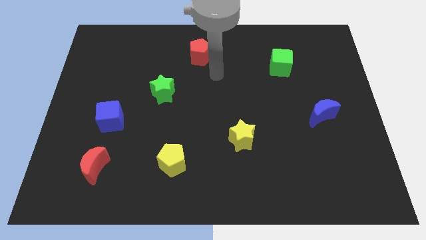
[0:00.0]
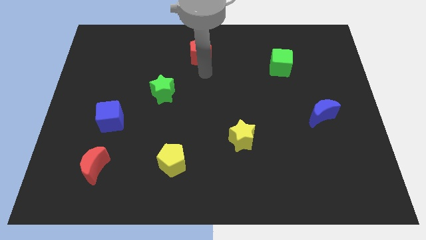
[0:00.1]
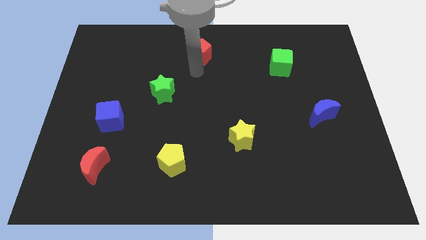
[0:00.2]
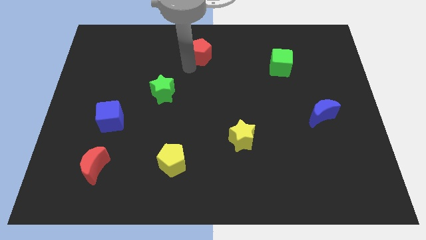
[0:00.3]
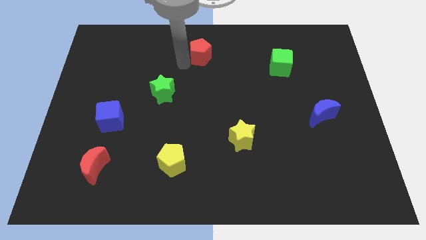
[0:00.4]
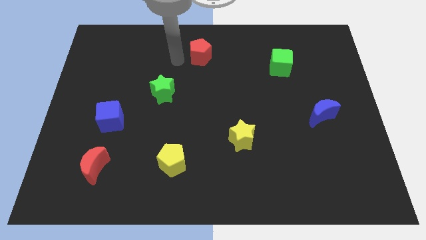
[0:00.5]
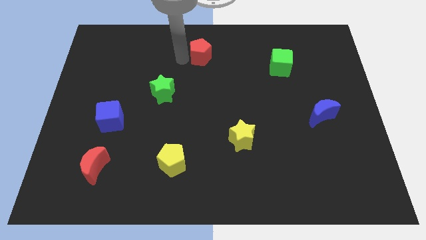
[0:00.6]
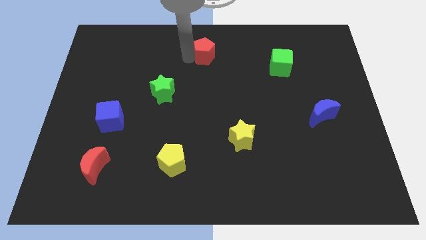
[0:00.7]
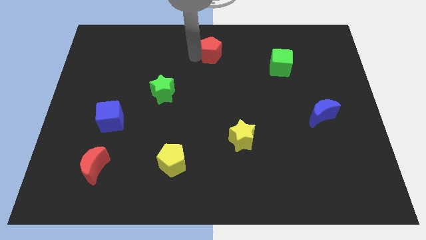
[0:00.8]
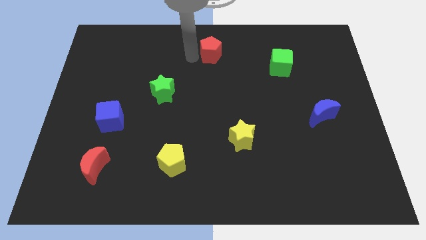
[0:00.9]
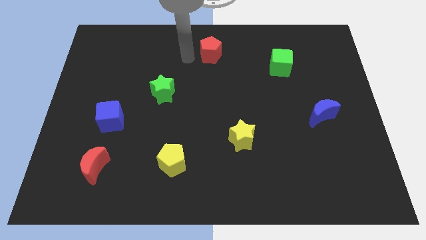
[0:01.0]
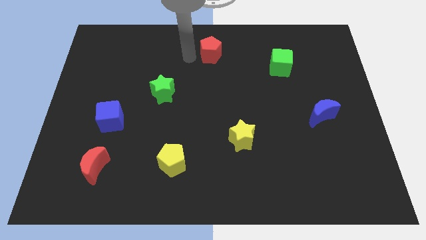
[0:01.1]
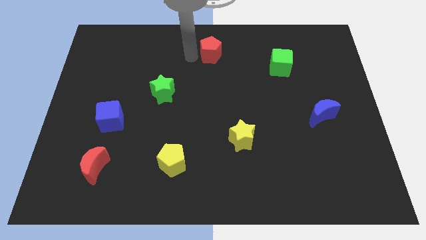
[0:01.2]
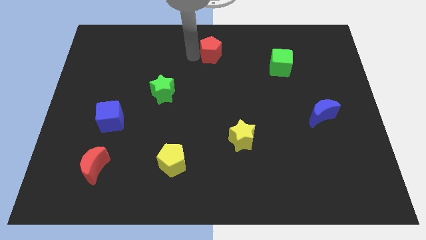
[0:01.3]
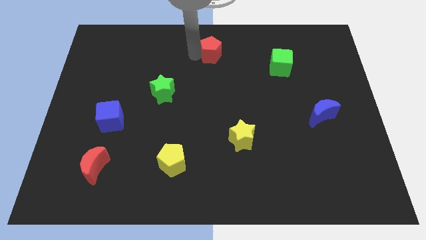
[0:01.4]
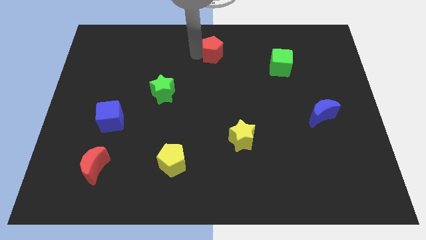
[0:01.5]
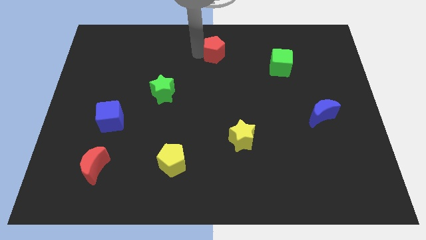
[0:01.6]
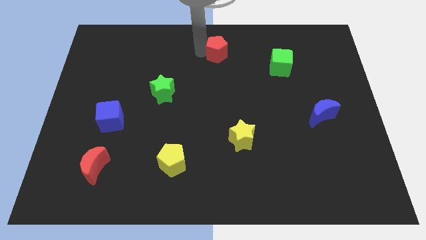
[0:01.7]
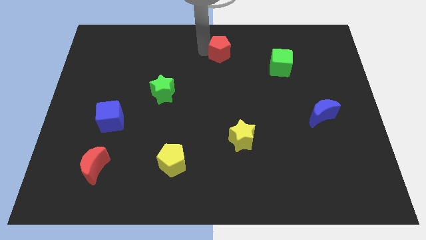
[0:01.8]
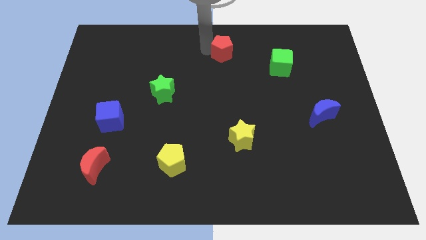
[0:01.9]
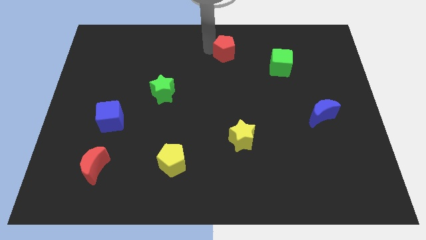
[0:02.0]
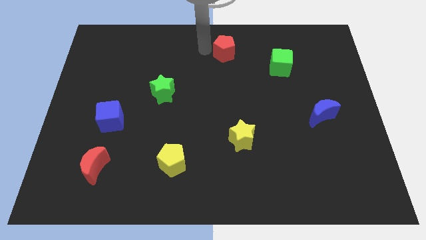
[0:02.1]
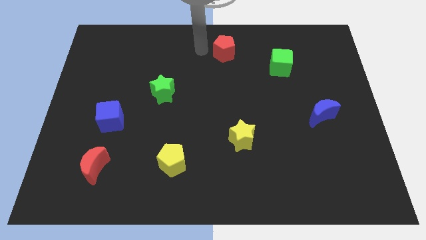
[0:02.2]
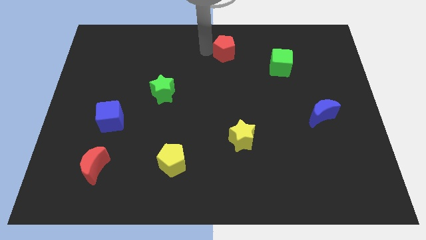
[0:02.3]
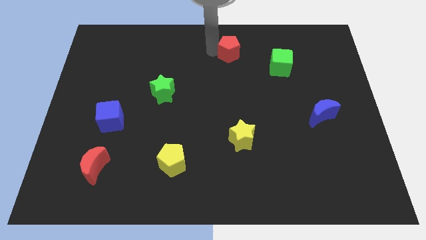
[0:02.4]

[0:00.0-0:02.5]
slightly move the red pentagon right

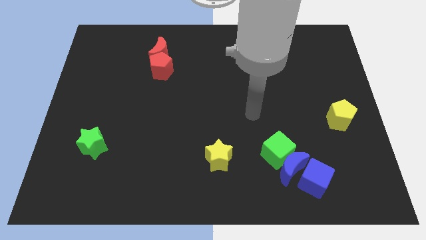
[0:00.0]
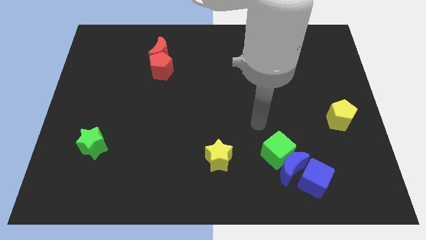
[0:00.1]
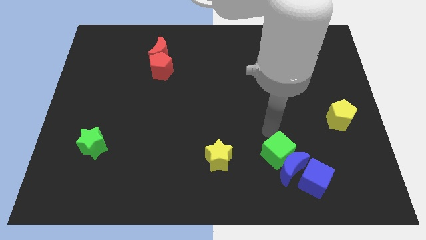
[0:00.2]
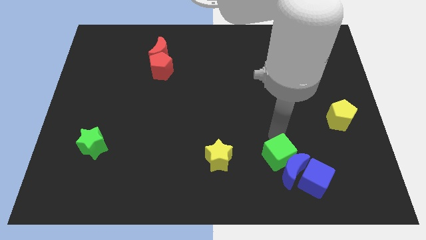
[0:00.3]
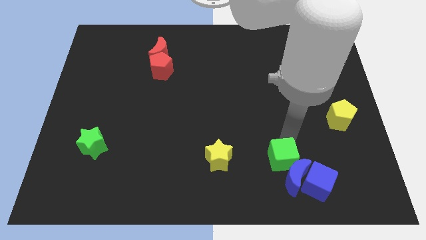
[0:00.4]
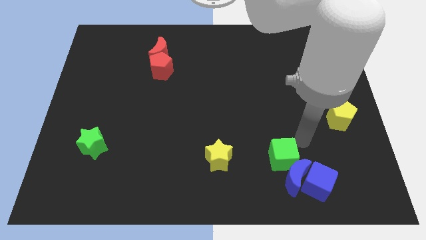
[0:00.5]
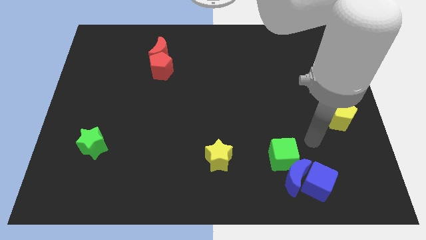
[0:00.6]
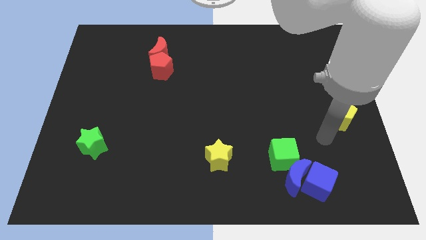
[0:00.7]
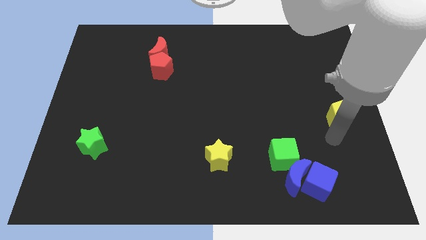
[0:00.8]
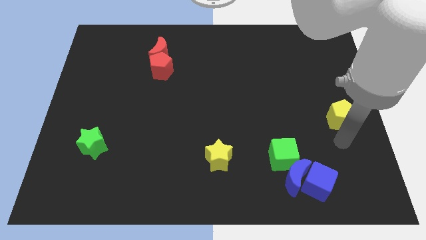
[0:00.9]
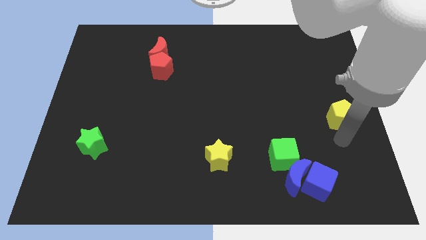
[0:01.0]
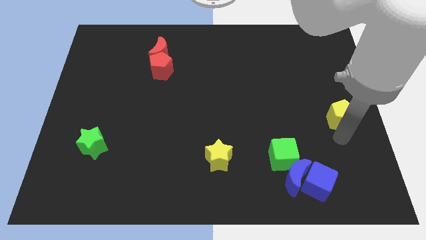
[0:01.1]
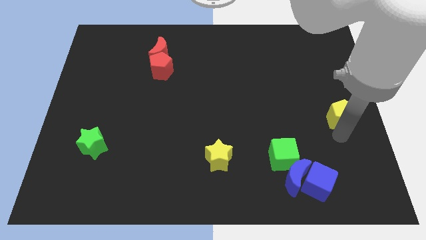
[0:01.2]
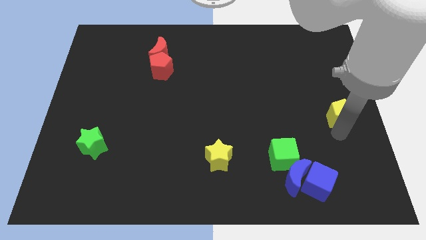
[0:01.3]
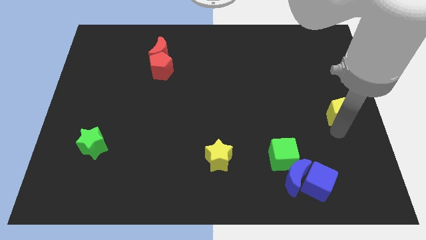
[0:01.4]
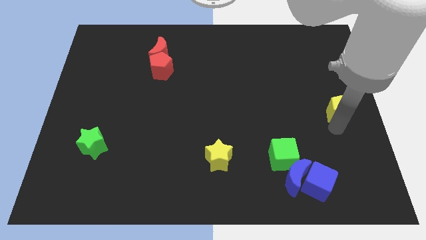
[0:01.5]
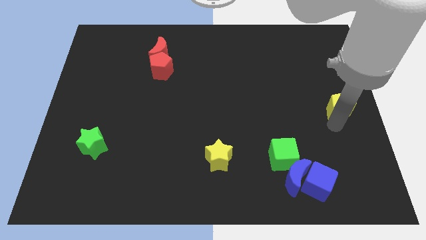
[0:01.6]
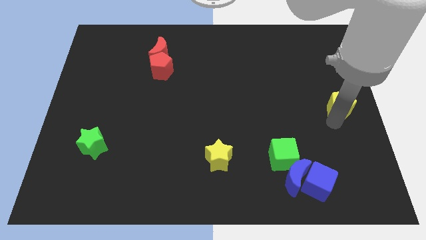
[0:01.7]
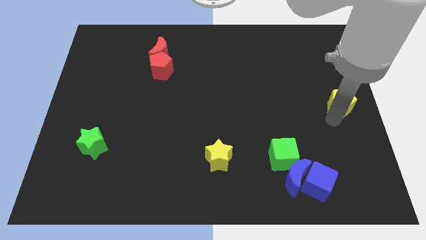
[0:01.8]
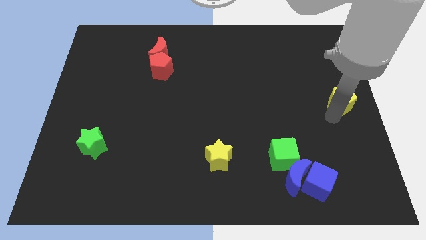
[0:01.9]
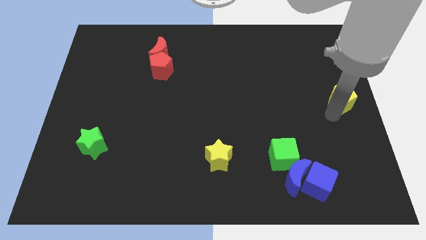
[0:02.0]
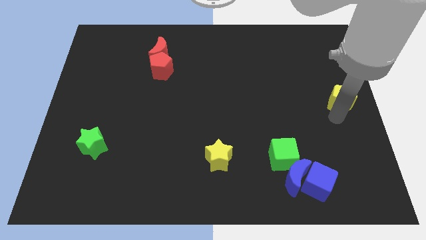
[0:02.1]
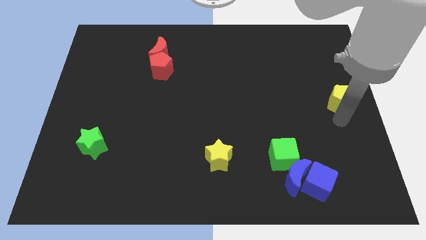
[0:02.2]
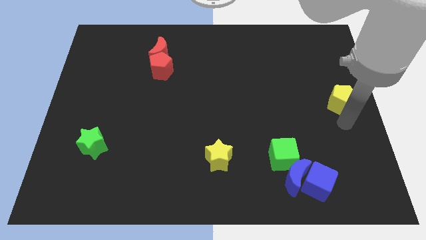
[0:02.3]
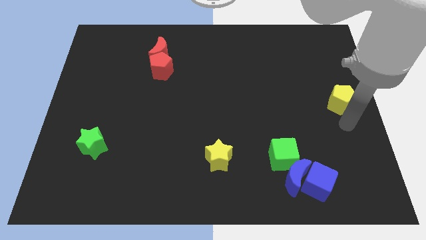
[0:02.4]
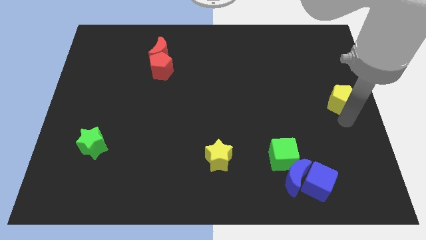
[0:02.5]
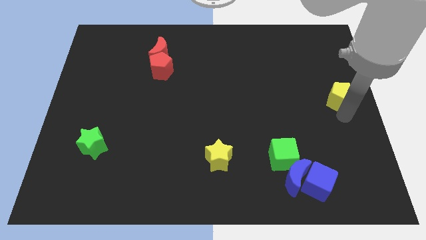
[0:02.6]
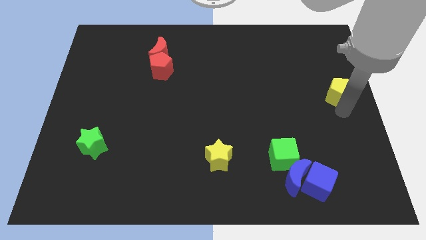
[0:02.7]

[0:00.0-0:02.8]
slide the yellow pentagon a little up

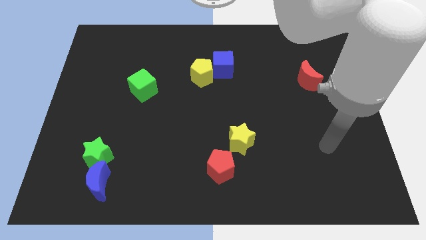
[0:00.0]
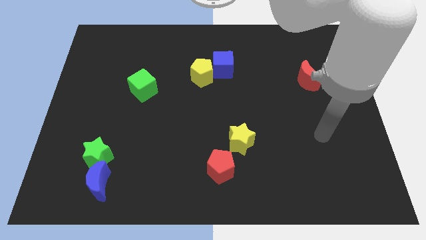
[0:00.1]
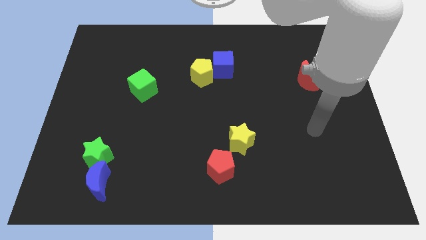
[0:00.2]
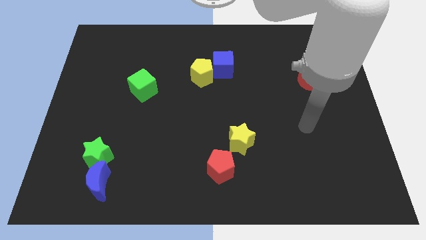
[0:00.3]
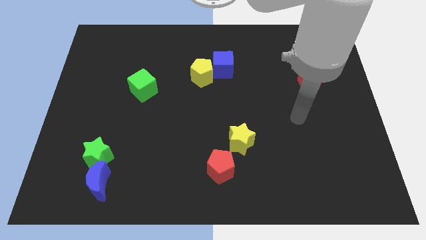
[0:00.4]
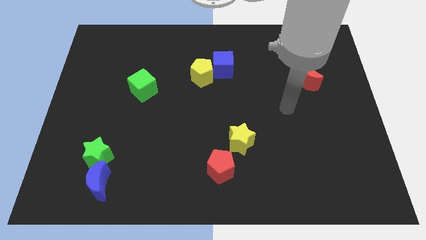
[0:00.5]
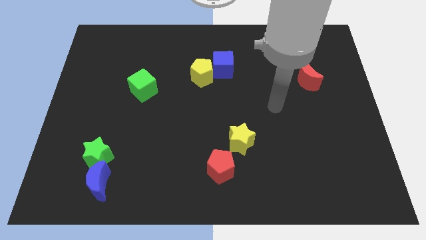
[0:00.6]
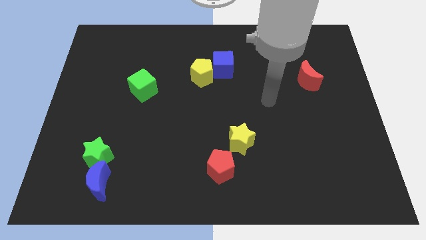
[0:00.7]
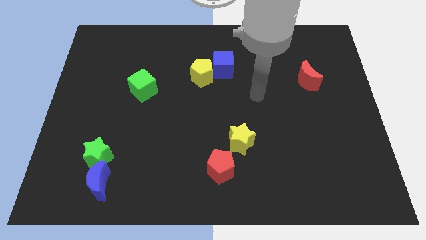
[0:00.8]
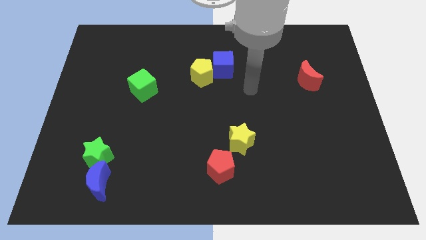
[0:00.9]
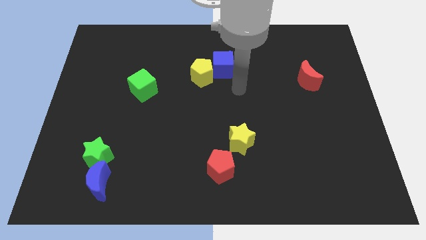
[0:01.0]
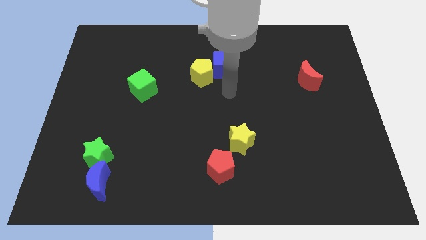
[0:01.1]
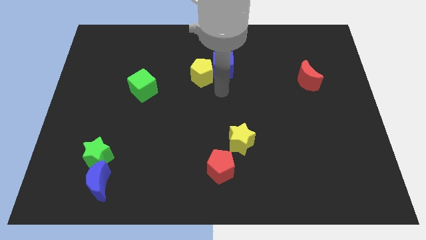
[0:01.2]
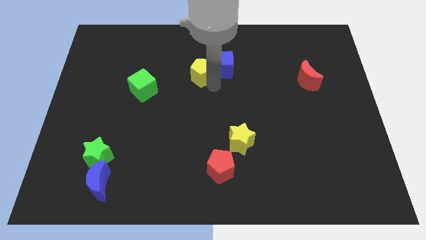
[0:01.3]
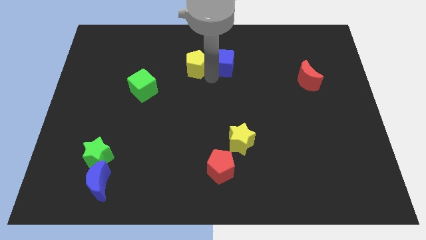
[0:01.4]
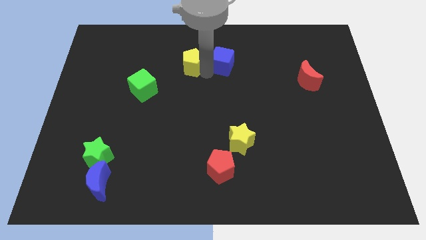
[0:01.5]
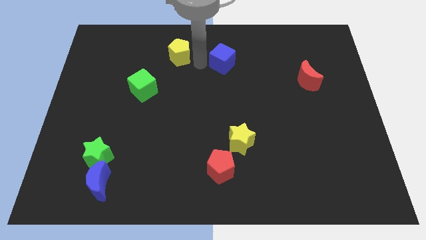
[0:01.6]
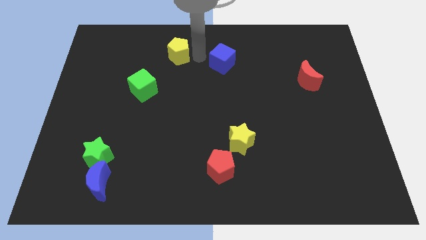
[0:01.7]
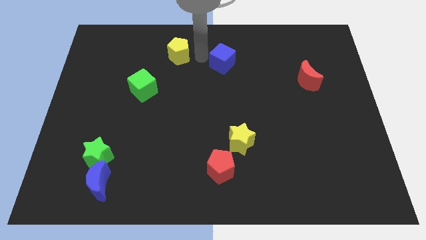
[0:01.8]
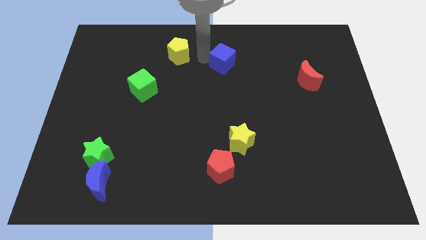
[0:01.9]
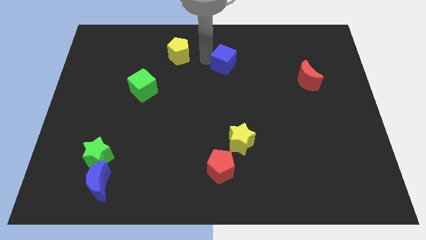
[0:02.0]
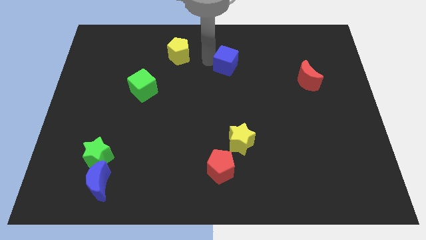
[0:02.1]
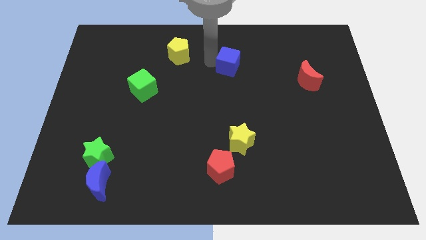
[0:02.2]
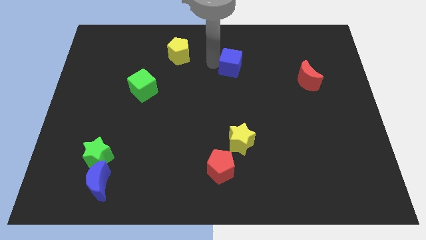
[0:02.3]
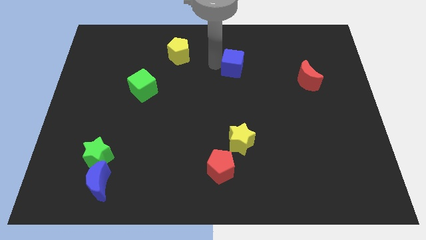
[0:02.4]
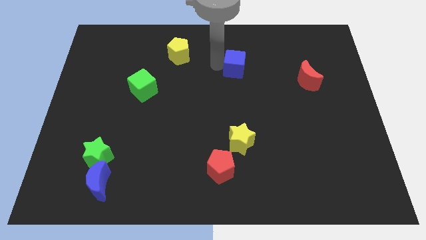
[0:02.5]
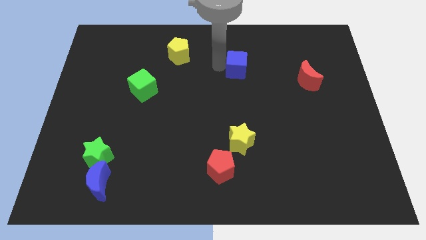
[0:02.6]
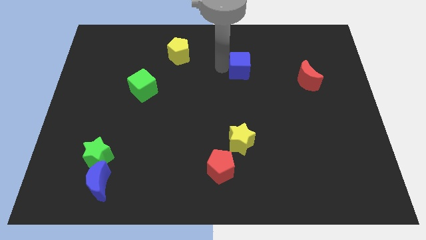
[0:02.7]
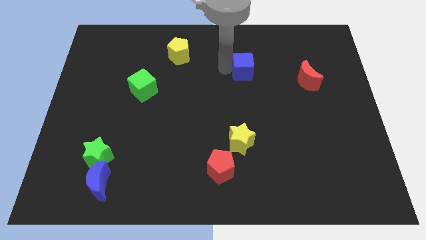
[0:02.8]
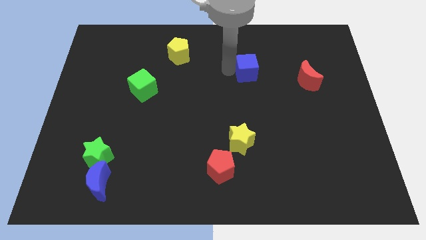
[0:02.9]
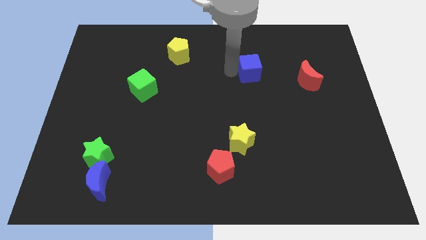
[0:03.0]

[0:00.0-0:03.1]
slide the blue cube right a little
